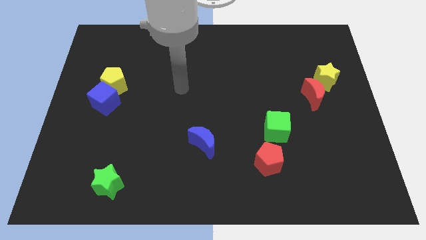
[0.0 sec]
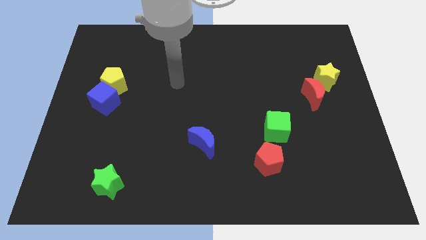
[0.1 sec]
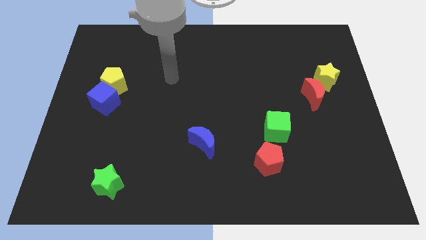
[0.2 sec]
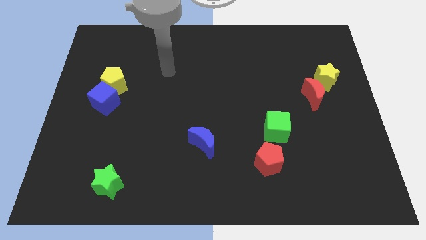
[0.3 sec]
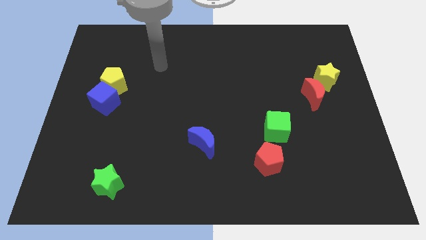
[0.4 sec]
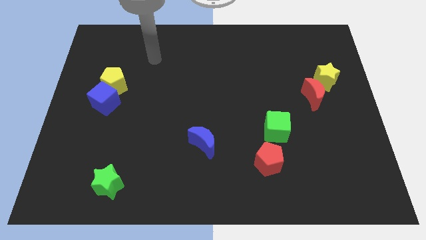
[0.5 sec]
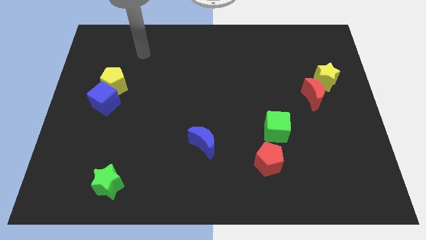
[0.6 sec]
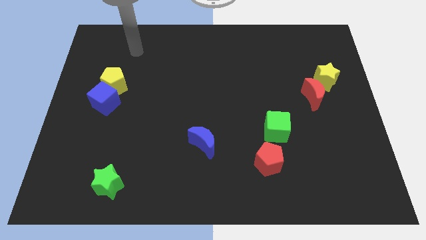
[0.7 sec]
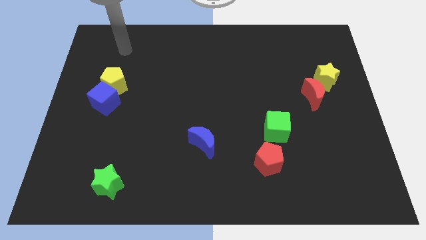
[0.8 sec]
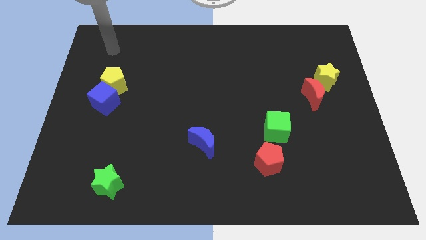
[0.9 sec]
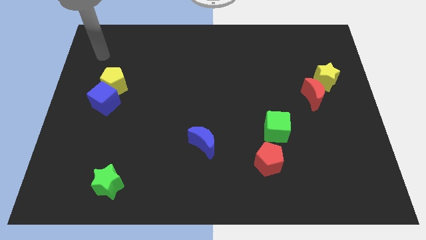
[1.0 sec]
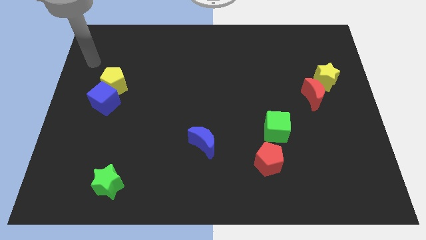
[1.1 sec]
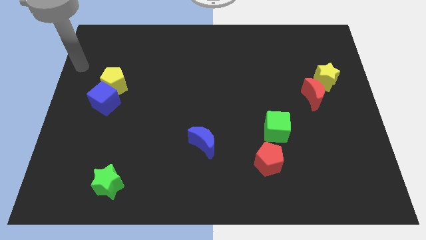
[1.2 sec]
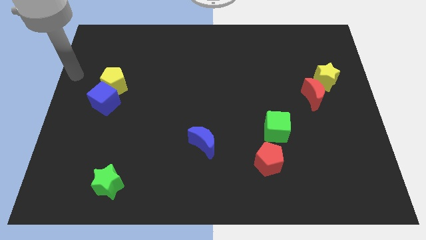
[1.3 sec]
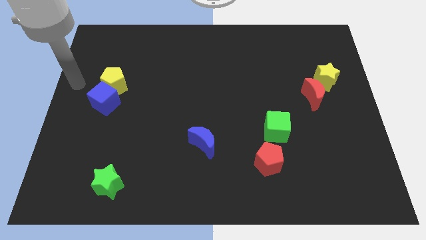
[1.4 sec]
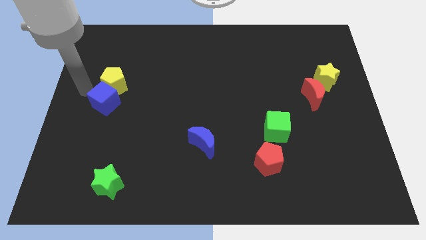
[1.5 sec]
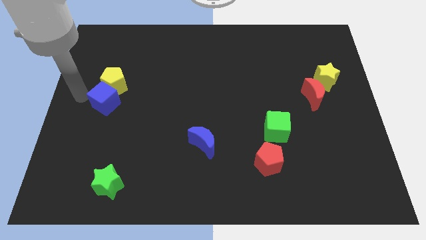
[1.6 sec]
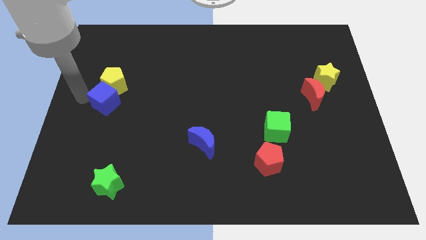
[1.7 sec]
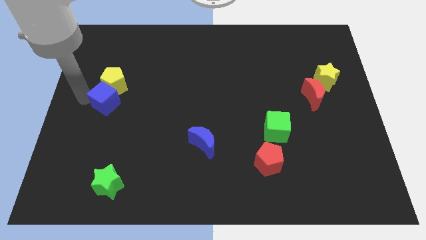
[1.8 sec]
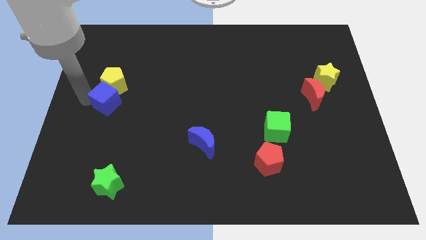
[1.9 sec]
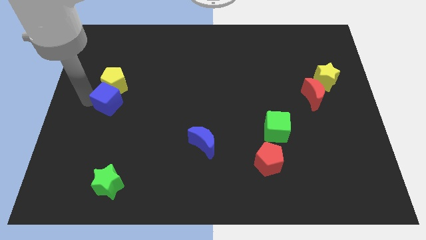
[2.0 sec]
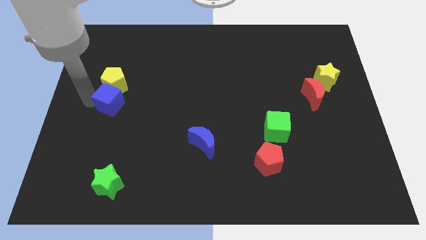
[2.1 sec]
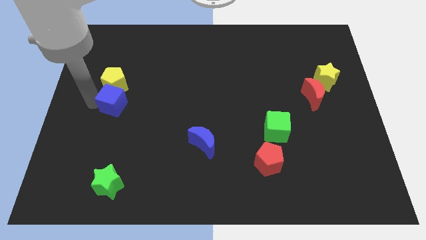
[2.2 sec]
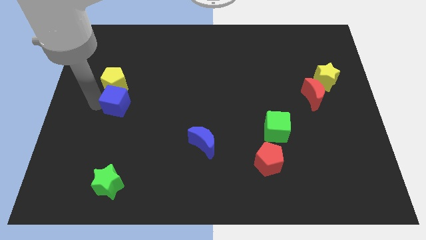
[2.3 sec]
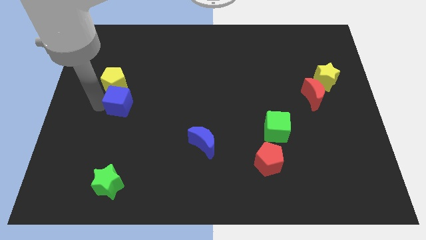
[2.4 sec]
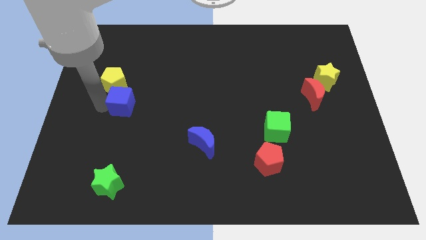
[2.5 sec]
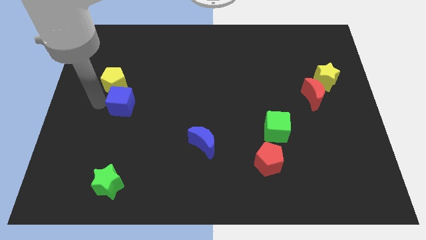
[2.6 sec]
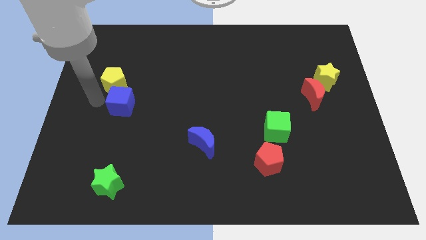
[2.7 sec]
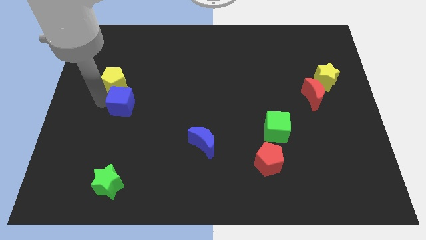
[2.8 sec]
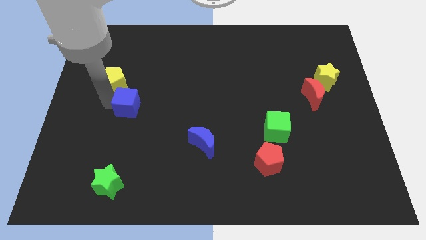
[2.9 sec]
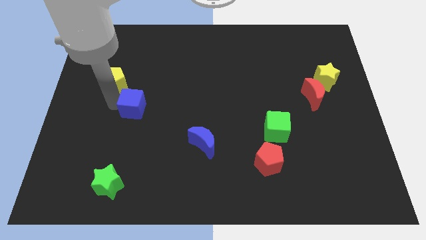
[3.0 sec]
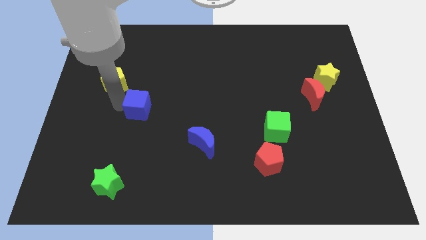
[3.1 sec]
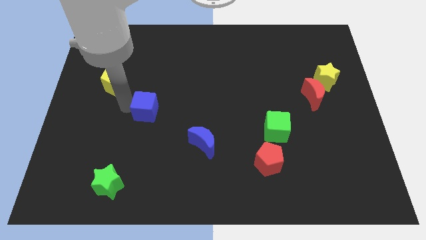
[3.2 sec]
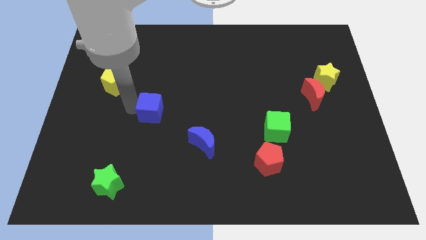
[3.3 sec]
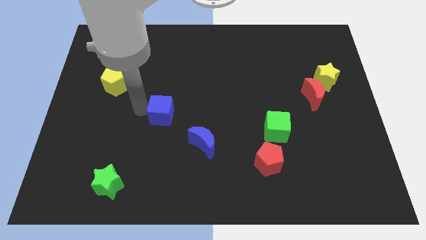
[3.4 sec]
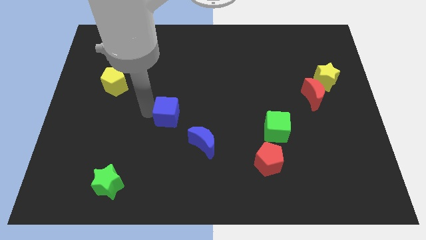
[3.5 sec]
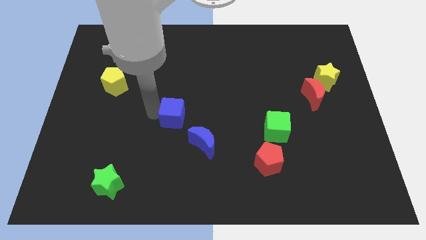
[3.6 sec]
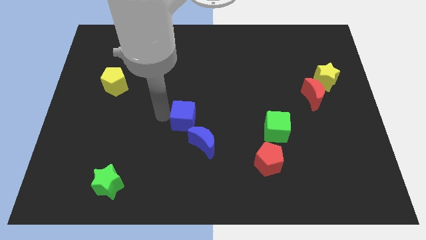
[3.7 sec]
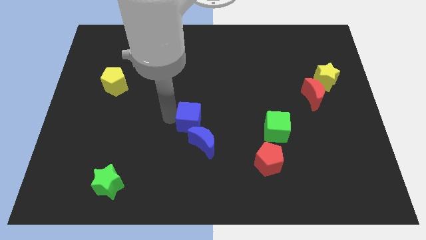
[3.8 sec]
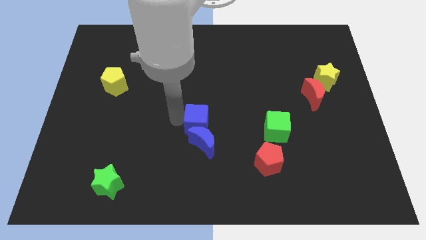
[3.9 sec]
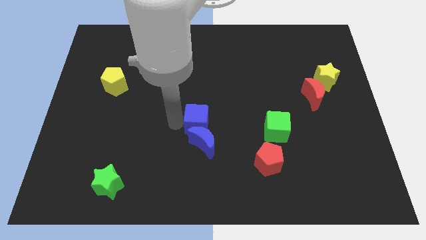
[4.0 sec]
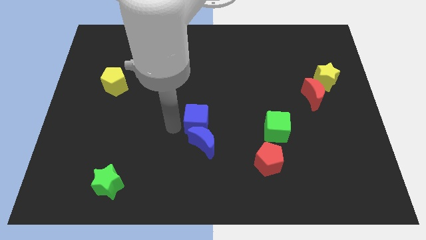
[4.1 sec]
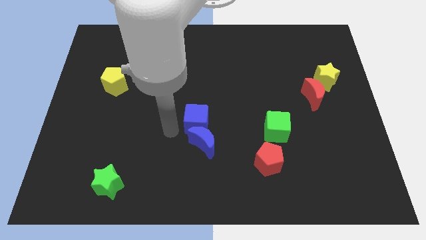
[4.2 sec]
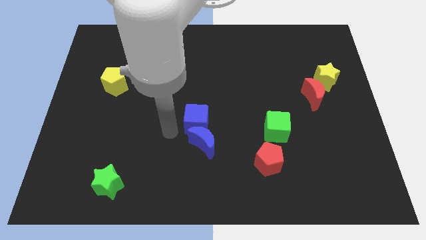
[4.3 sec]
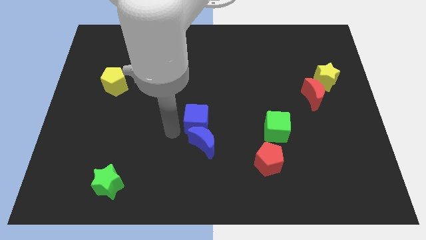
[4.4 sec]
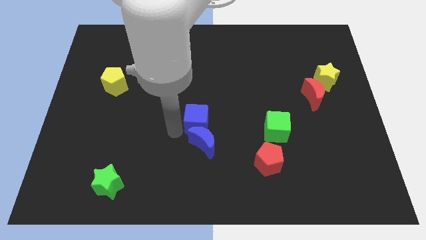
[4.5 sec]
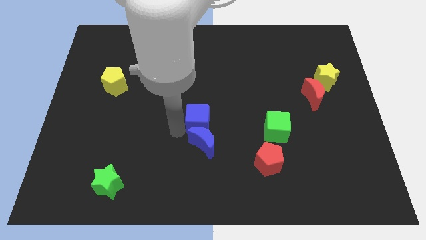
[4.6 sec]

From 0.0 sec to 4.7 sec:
slide the blue cube diagonally up and to the right of the blue moon

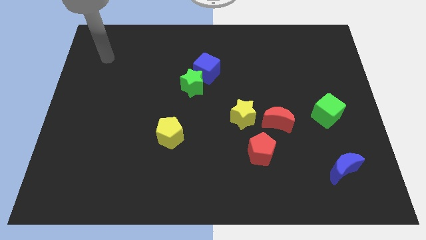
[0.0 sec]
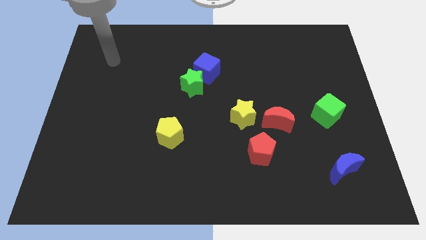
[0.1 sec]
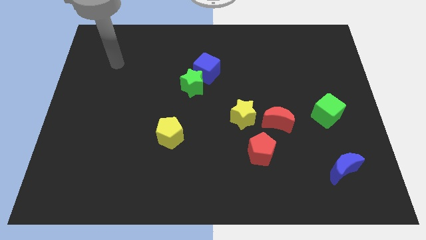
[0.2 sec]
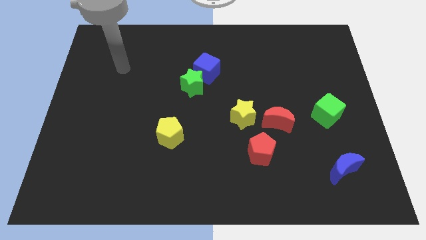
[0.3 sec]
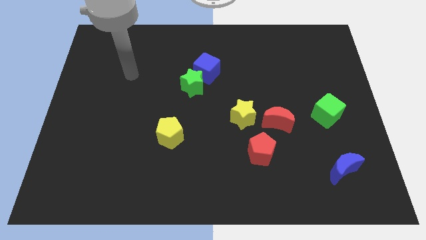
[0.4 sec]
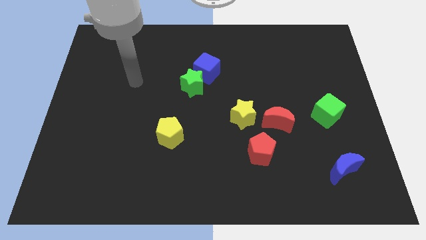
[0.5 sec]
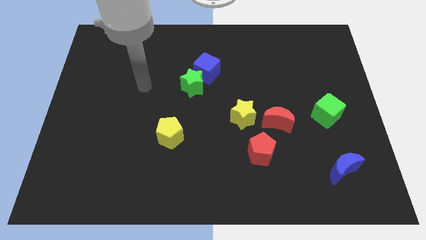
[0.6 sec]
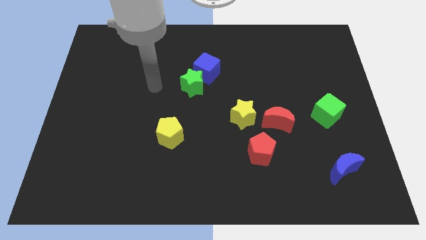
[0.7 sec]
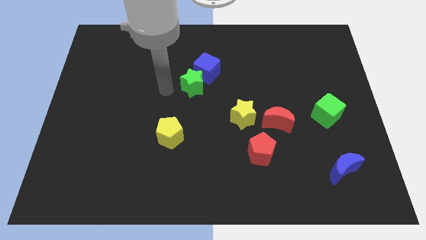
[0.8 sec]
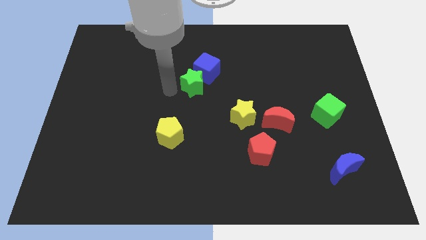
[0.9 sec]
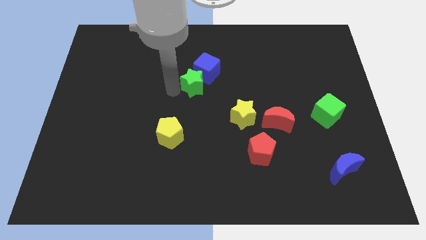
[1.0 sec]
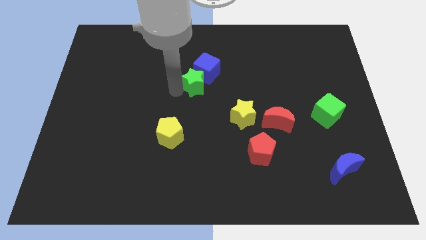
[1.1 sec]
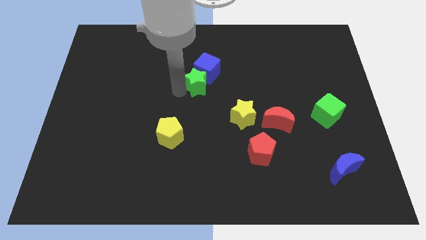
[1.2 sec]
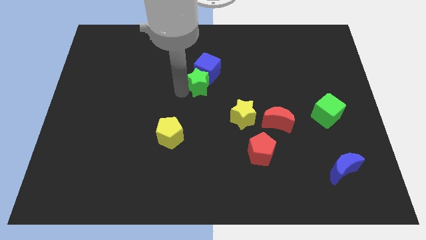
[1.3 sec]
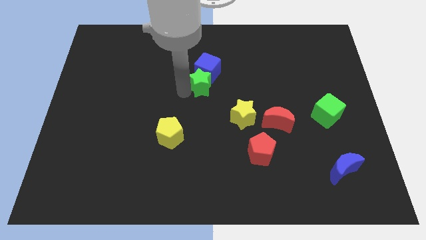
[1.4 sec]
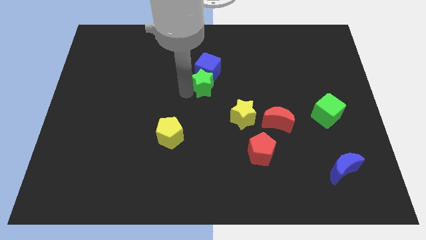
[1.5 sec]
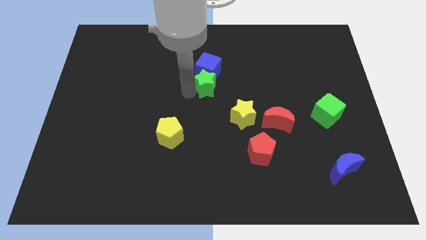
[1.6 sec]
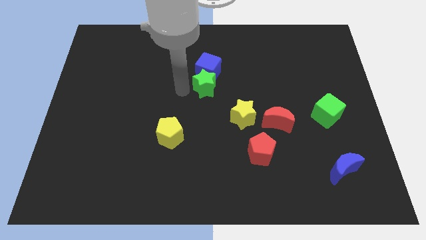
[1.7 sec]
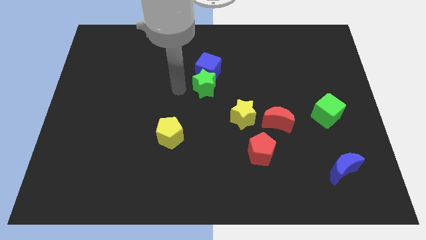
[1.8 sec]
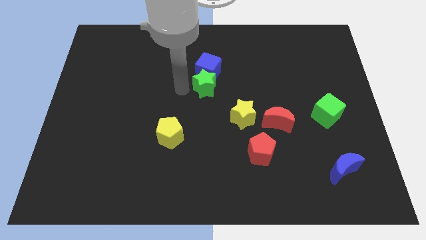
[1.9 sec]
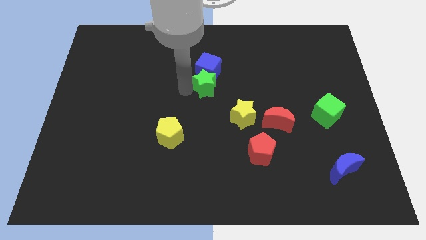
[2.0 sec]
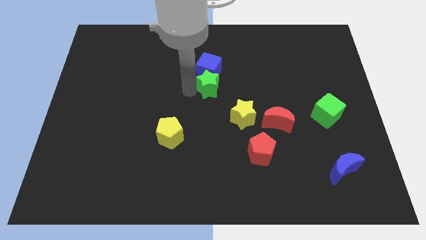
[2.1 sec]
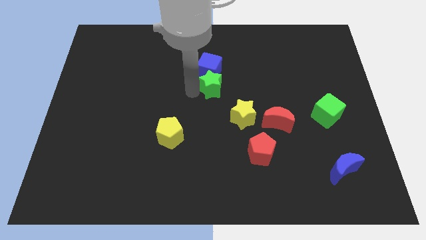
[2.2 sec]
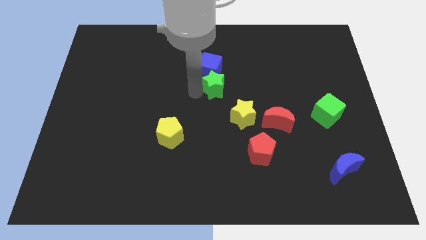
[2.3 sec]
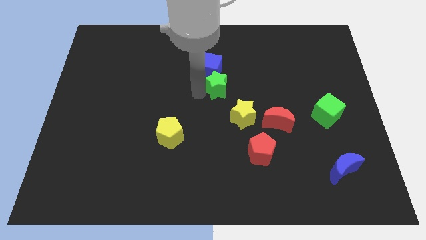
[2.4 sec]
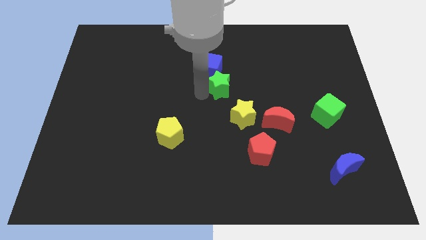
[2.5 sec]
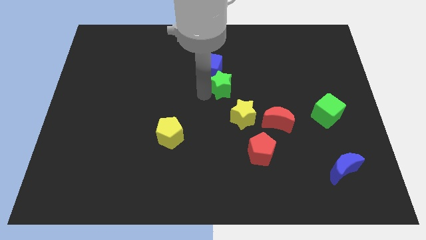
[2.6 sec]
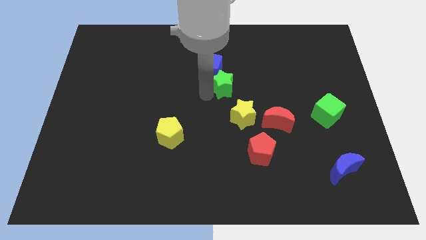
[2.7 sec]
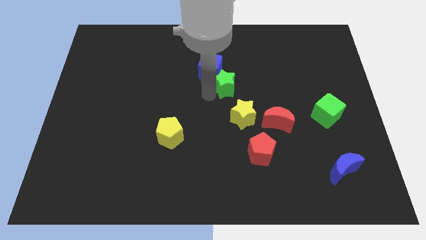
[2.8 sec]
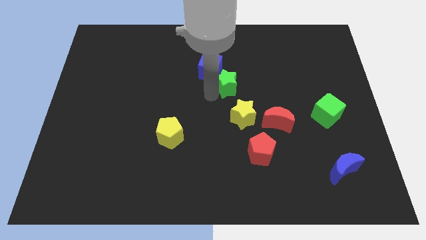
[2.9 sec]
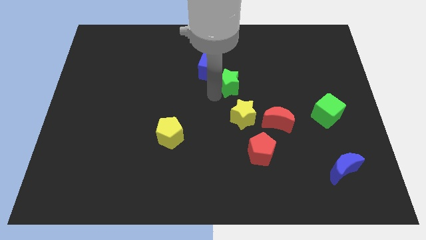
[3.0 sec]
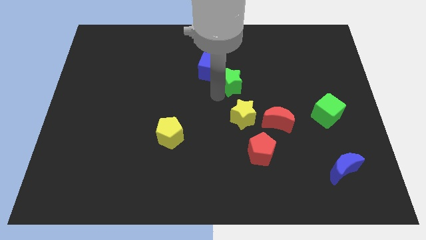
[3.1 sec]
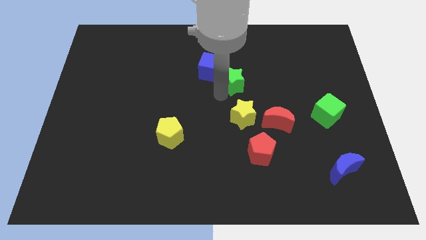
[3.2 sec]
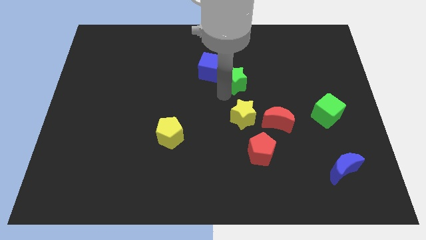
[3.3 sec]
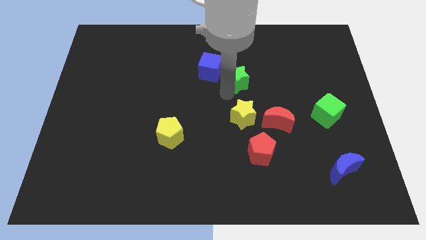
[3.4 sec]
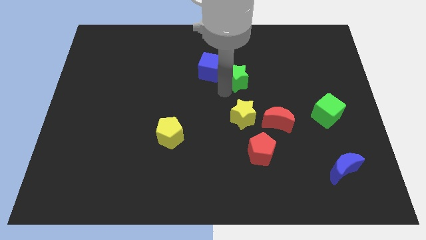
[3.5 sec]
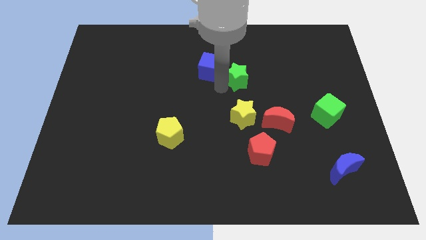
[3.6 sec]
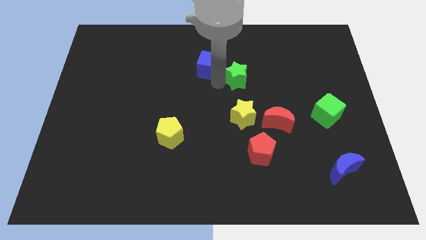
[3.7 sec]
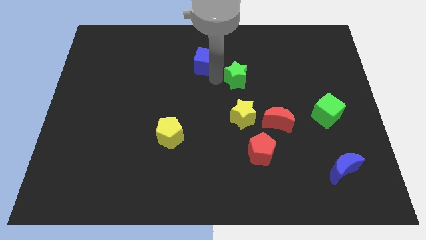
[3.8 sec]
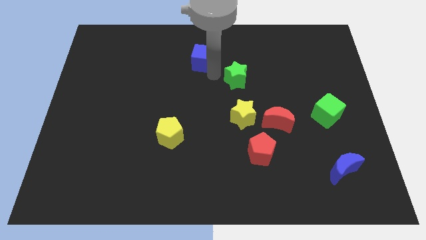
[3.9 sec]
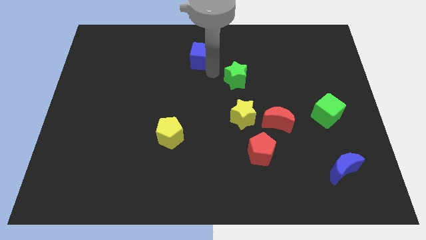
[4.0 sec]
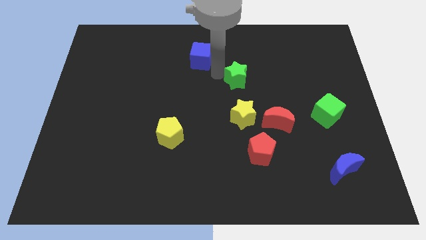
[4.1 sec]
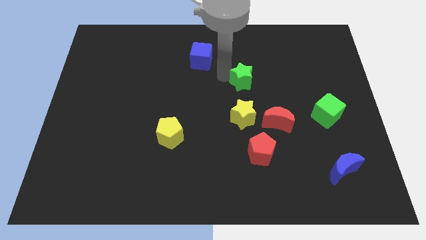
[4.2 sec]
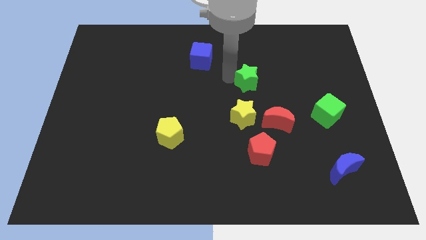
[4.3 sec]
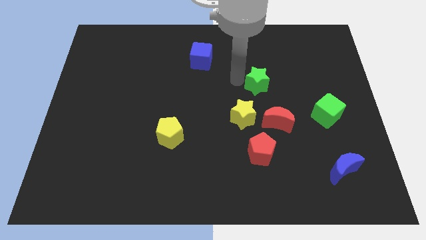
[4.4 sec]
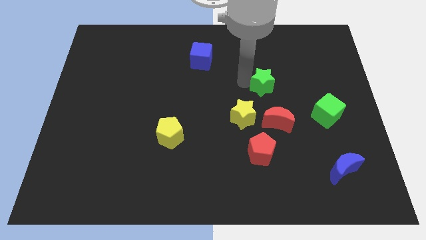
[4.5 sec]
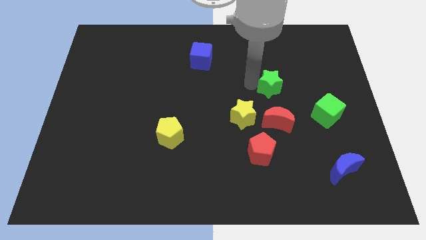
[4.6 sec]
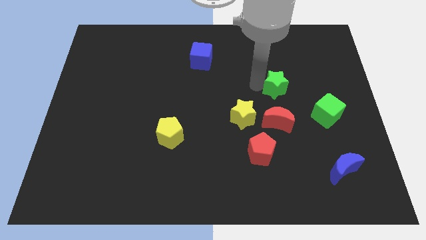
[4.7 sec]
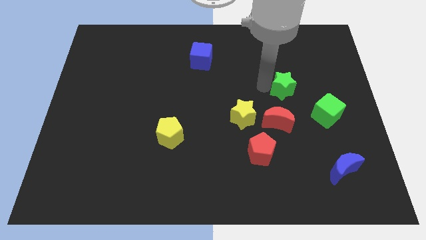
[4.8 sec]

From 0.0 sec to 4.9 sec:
move the green star to the top left side of the green cube
